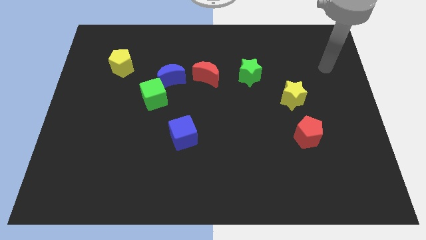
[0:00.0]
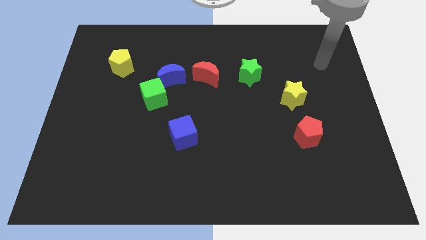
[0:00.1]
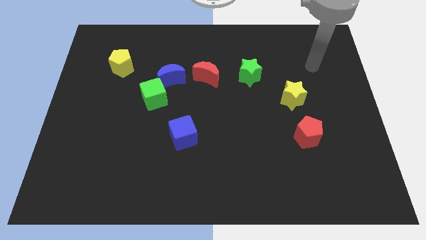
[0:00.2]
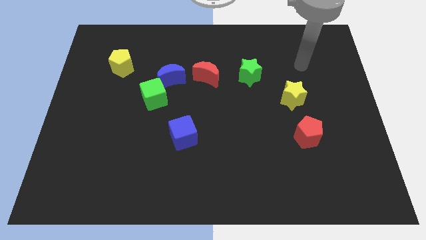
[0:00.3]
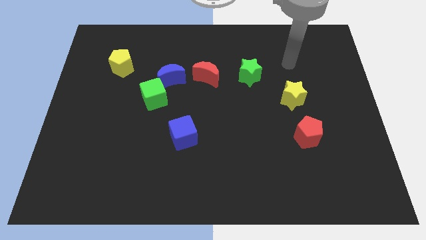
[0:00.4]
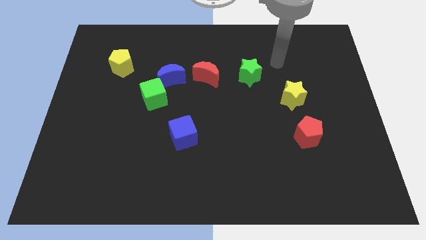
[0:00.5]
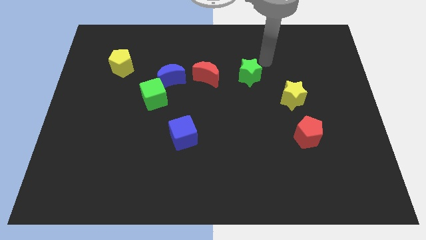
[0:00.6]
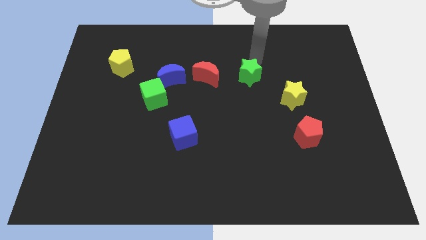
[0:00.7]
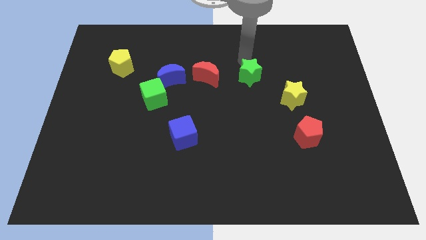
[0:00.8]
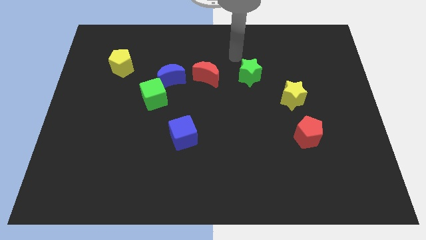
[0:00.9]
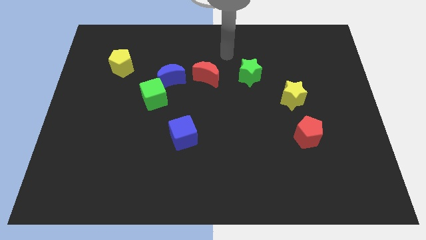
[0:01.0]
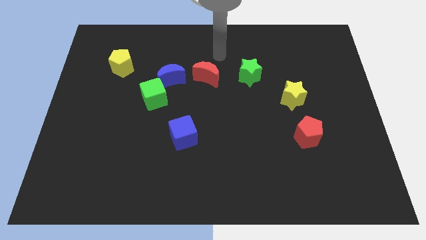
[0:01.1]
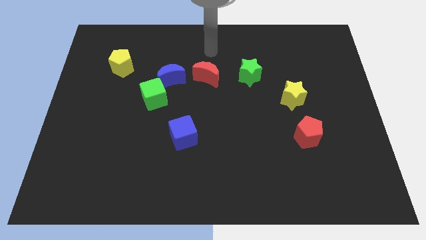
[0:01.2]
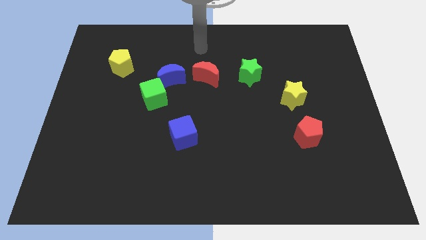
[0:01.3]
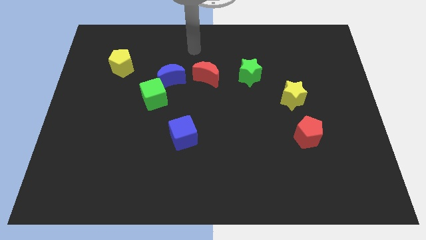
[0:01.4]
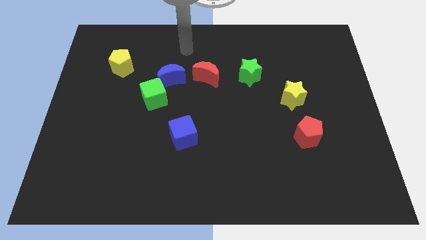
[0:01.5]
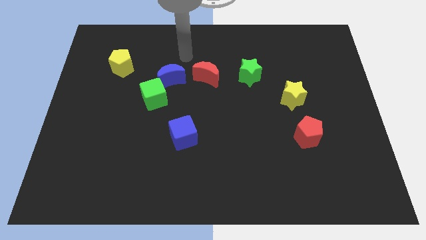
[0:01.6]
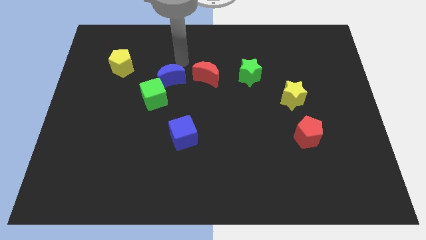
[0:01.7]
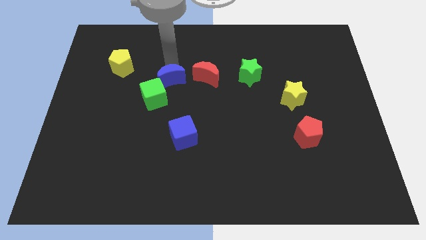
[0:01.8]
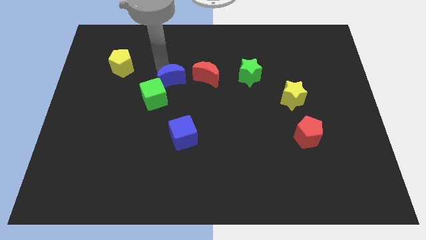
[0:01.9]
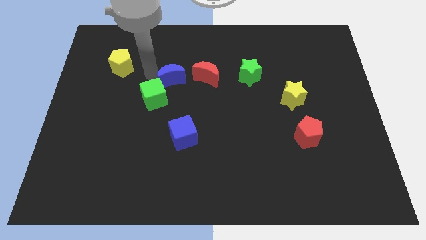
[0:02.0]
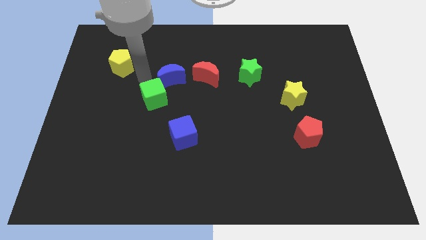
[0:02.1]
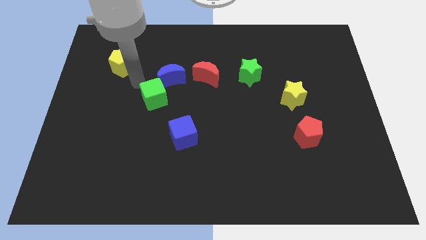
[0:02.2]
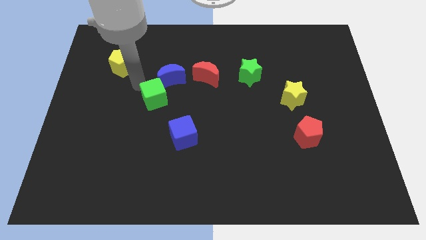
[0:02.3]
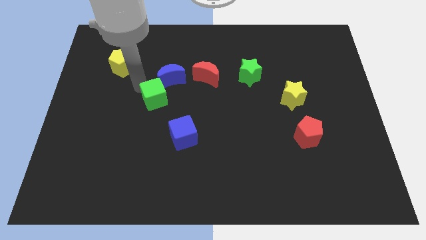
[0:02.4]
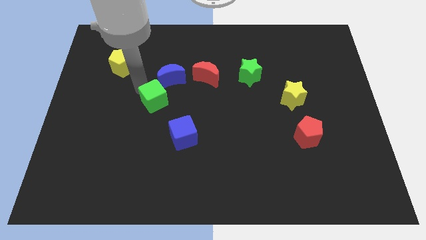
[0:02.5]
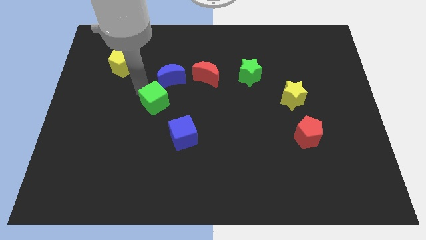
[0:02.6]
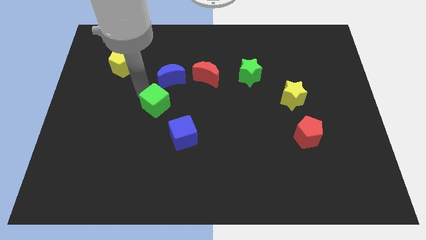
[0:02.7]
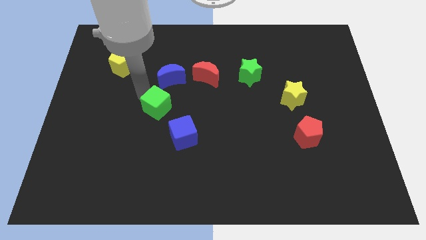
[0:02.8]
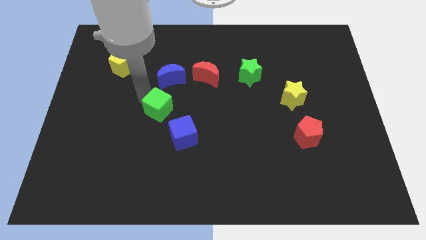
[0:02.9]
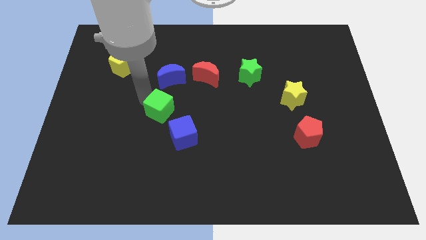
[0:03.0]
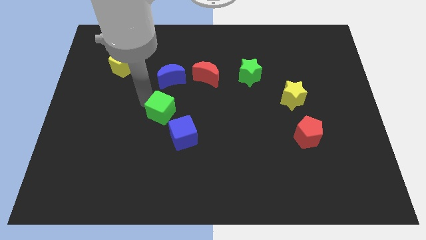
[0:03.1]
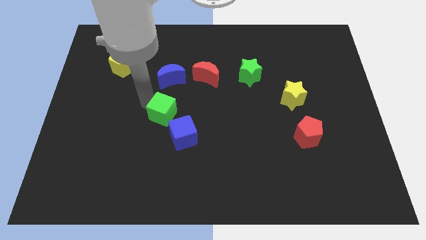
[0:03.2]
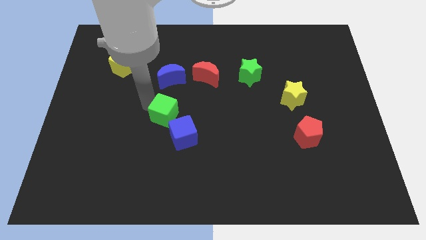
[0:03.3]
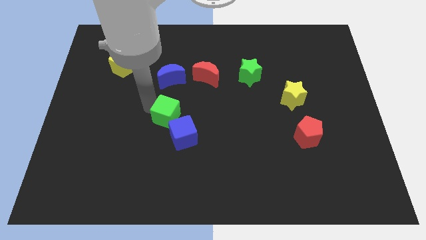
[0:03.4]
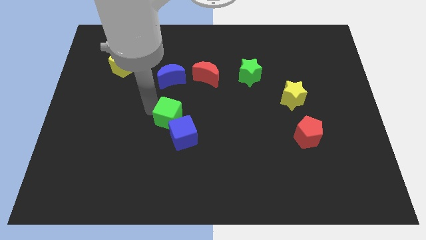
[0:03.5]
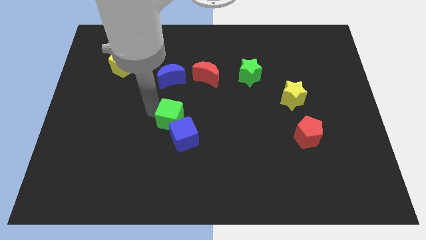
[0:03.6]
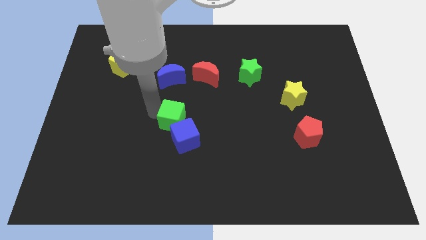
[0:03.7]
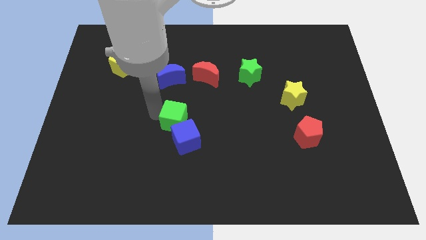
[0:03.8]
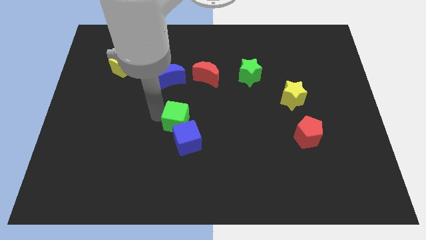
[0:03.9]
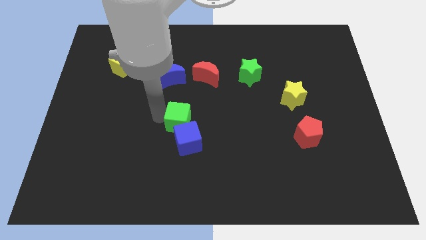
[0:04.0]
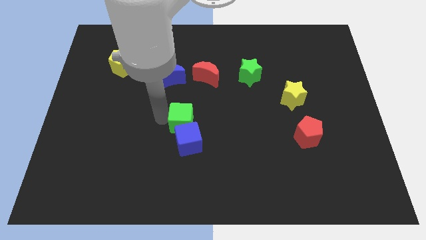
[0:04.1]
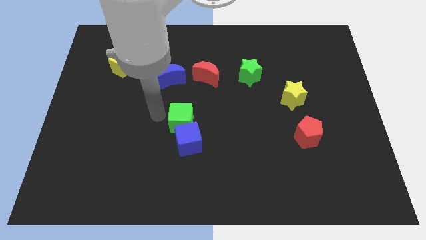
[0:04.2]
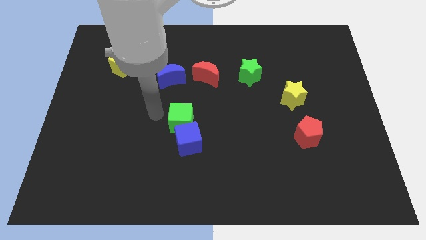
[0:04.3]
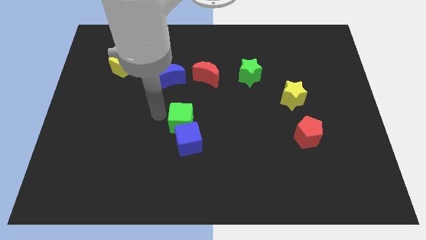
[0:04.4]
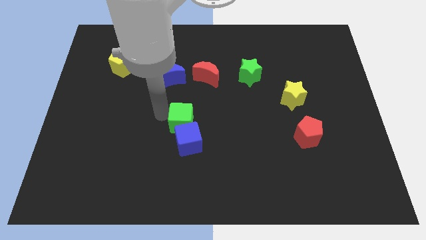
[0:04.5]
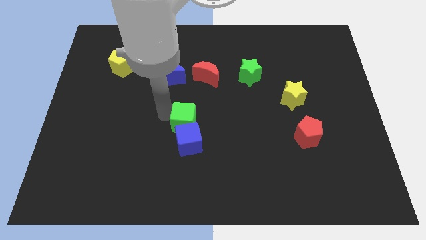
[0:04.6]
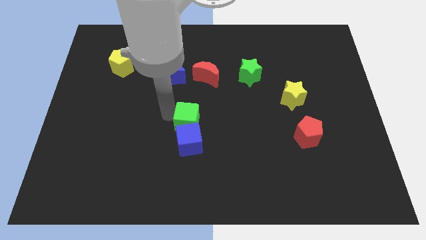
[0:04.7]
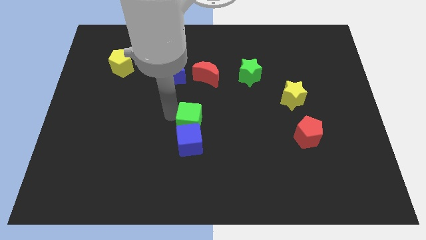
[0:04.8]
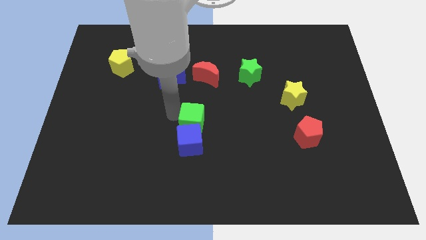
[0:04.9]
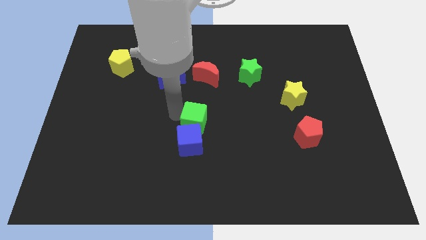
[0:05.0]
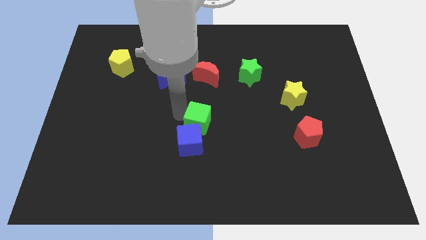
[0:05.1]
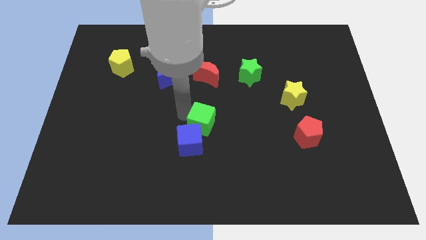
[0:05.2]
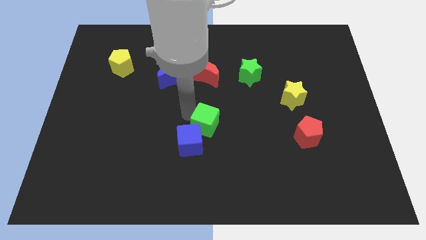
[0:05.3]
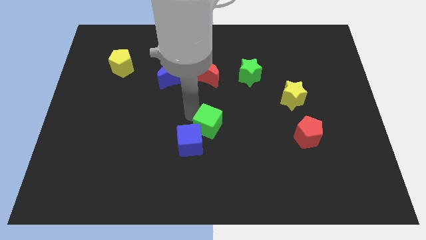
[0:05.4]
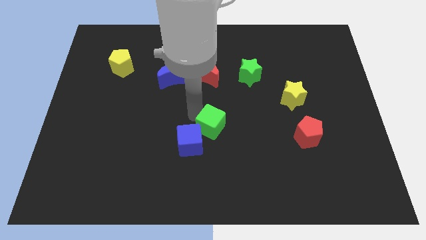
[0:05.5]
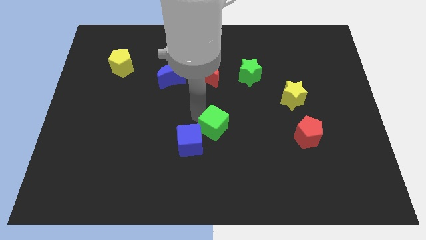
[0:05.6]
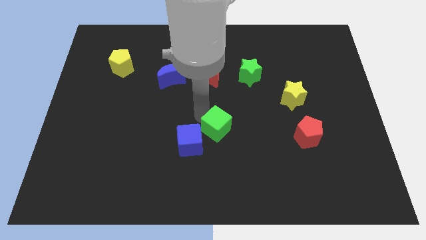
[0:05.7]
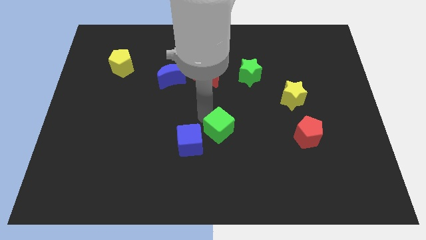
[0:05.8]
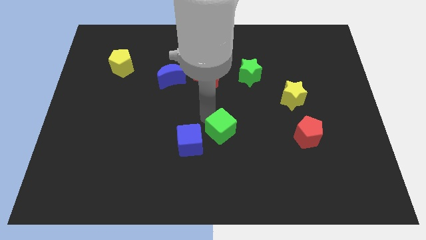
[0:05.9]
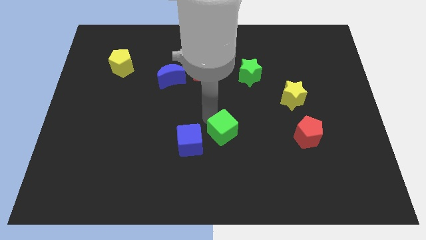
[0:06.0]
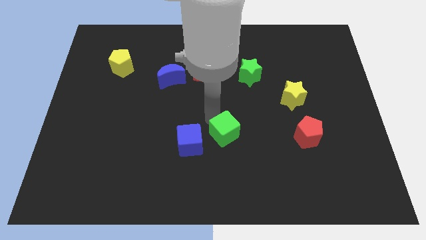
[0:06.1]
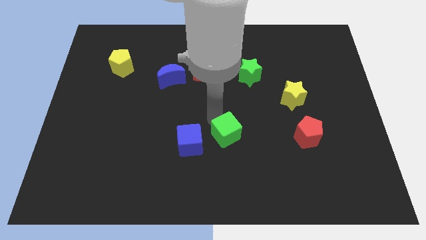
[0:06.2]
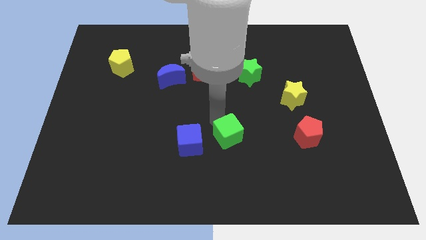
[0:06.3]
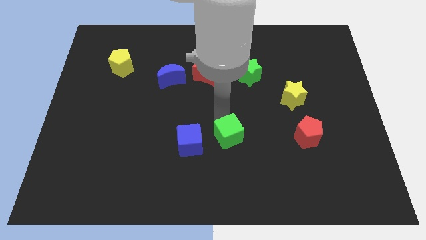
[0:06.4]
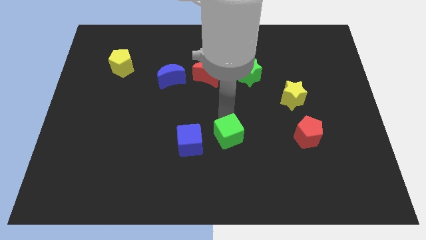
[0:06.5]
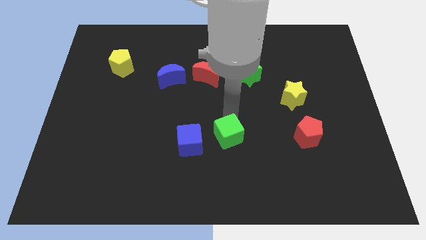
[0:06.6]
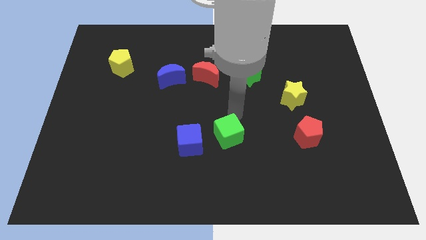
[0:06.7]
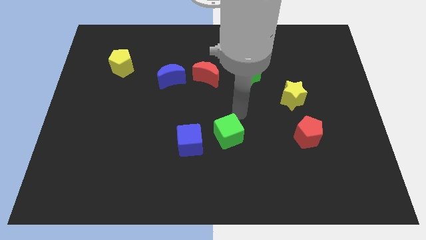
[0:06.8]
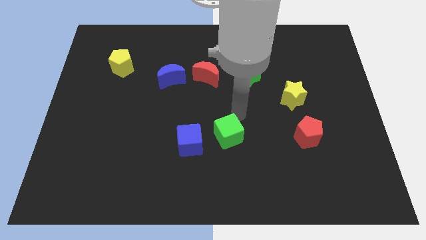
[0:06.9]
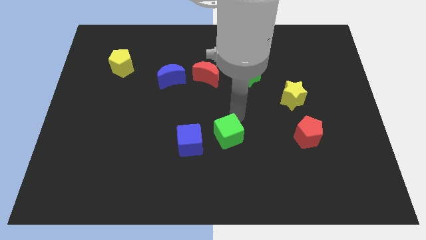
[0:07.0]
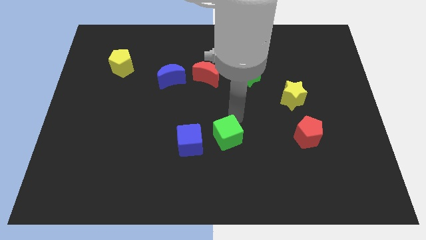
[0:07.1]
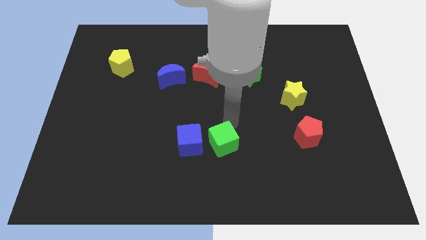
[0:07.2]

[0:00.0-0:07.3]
slide the green cube diagonally down and to the right

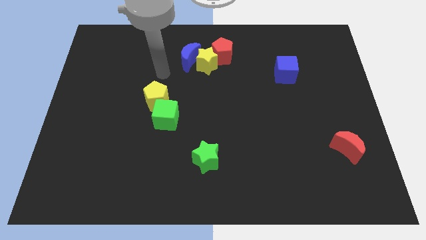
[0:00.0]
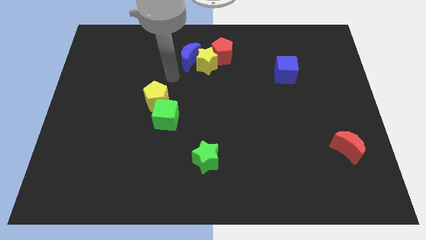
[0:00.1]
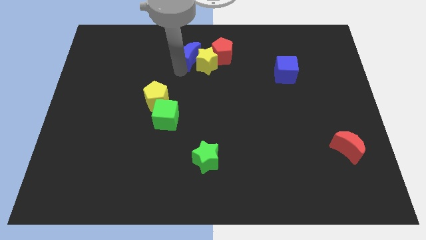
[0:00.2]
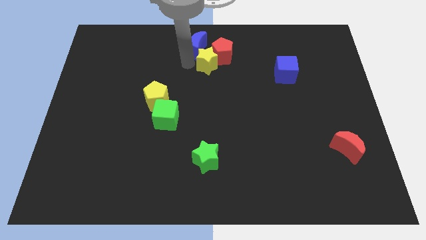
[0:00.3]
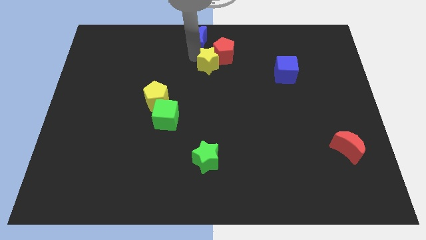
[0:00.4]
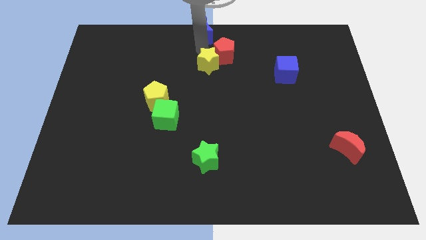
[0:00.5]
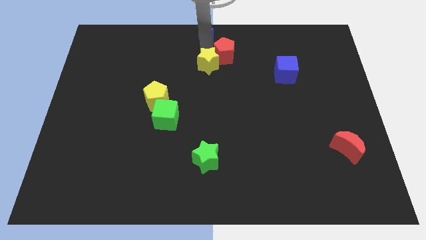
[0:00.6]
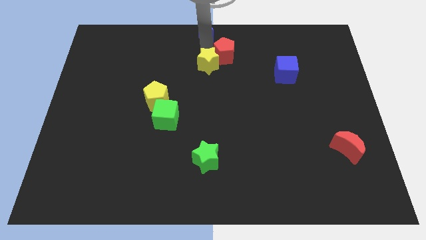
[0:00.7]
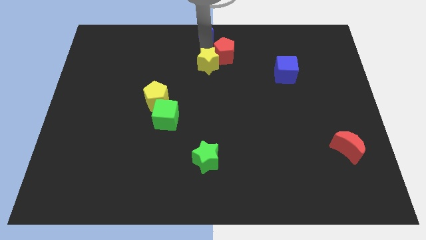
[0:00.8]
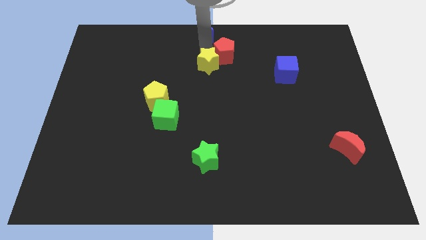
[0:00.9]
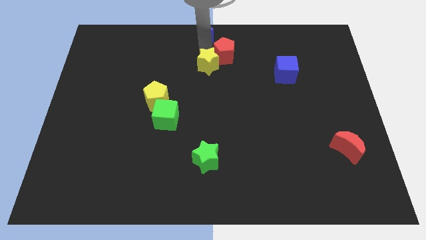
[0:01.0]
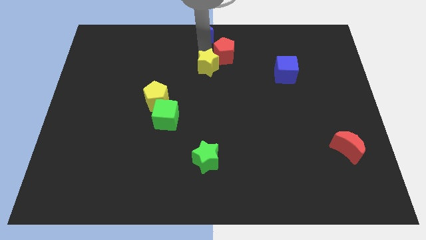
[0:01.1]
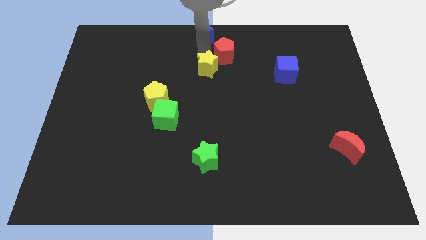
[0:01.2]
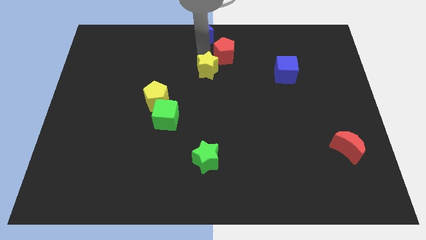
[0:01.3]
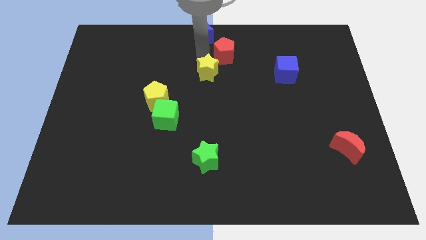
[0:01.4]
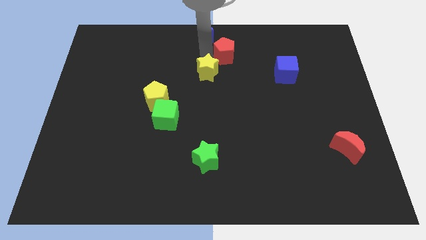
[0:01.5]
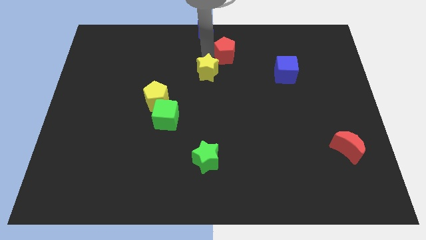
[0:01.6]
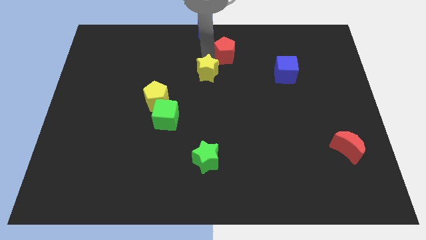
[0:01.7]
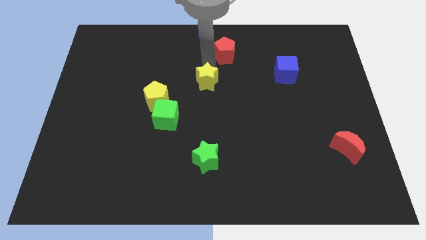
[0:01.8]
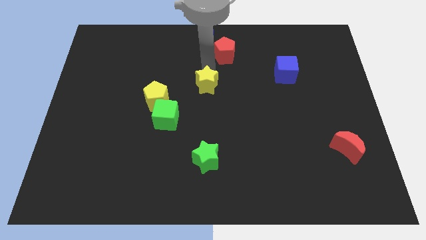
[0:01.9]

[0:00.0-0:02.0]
move the yellow star a little bit down
